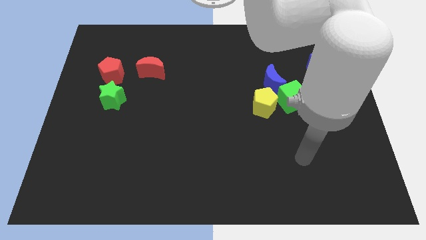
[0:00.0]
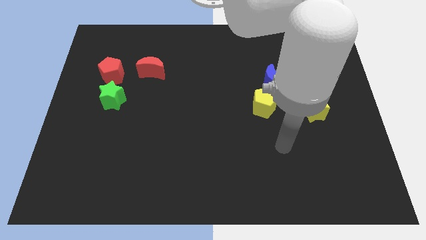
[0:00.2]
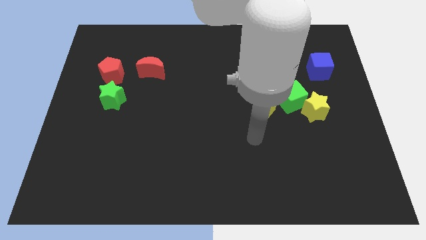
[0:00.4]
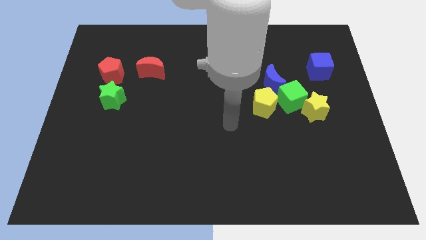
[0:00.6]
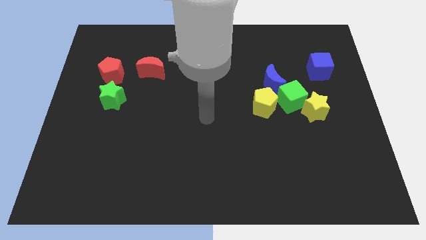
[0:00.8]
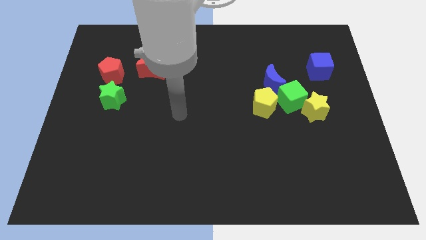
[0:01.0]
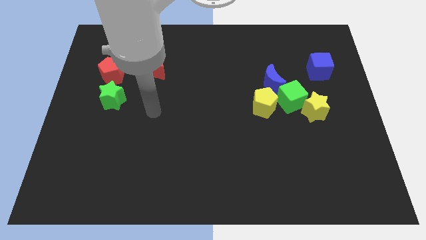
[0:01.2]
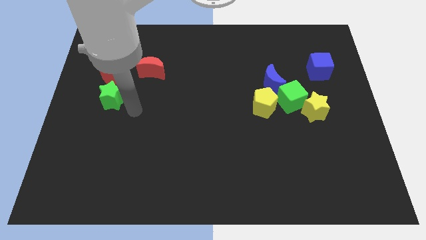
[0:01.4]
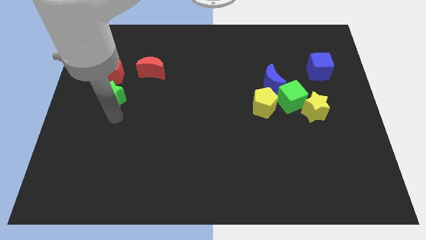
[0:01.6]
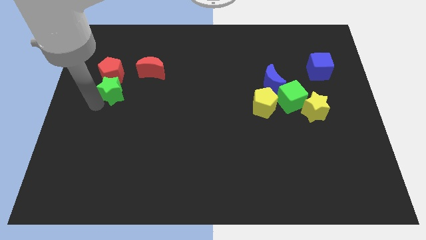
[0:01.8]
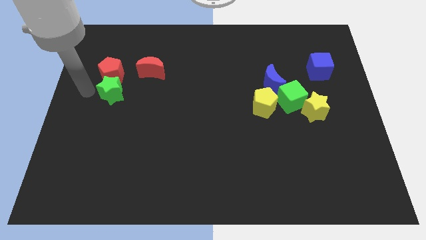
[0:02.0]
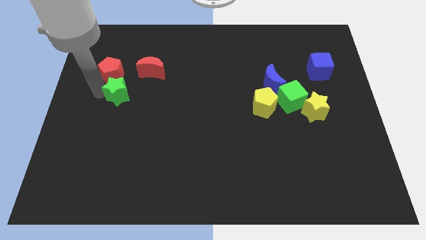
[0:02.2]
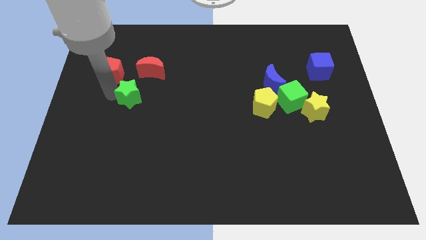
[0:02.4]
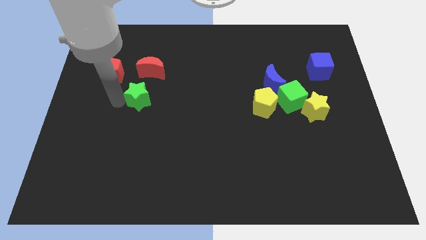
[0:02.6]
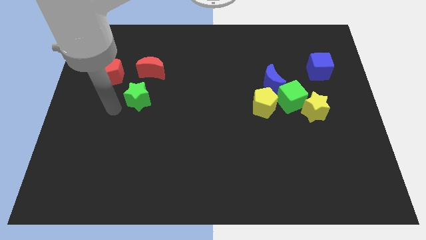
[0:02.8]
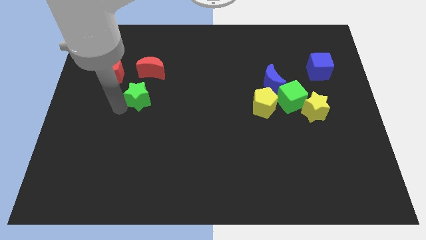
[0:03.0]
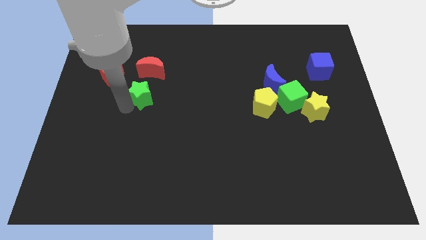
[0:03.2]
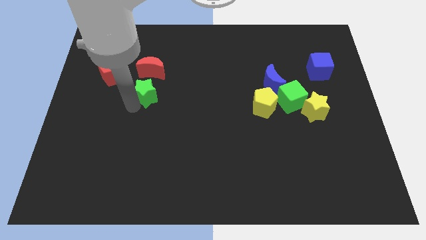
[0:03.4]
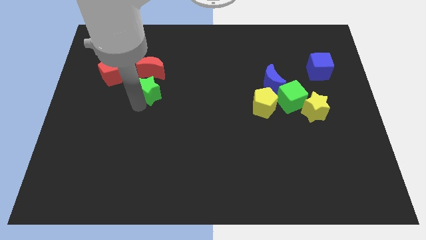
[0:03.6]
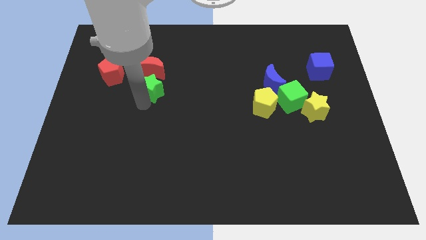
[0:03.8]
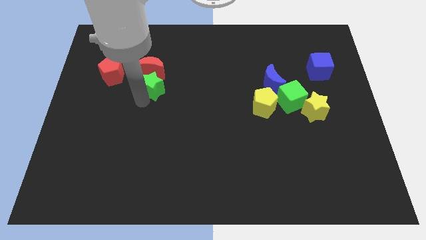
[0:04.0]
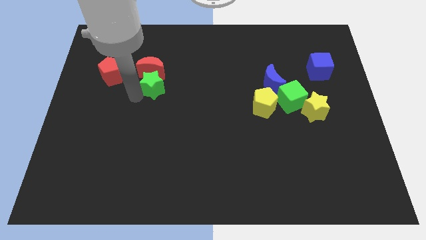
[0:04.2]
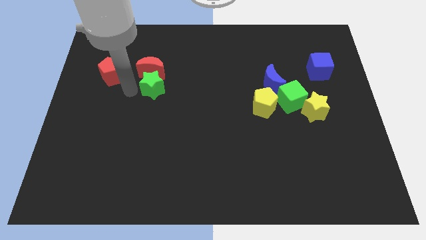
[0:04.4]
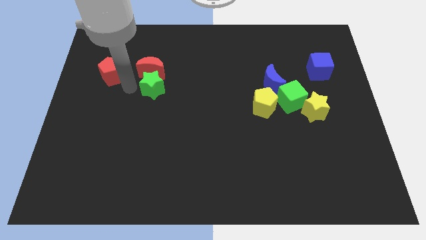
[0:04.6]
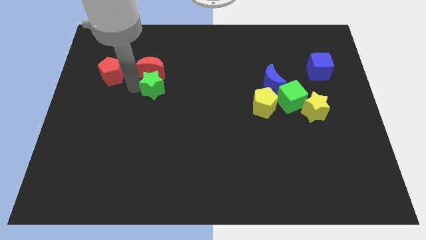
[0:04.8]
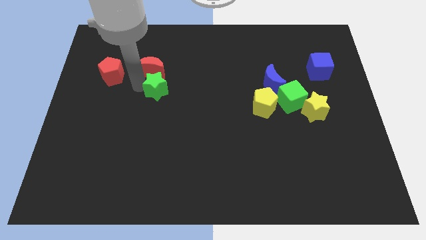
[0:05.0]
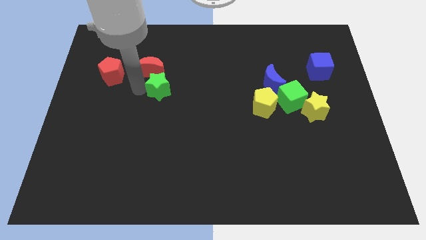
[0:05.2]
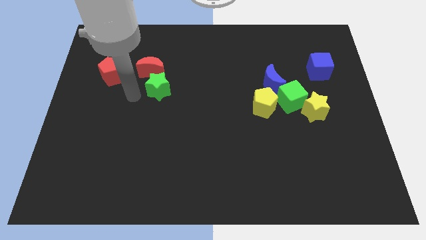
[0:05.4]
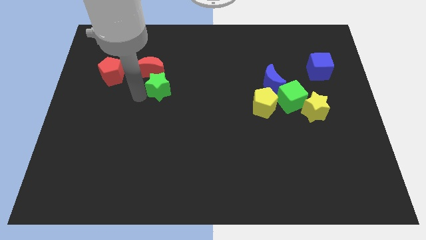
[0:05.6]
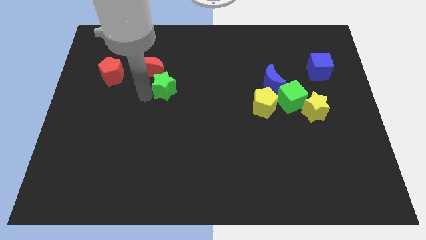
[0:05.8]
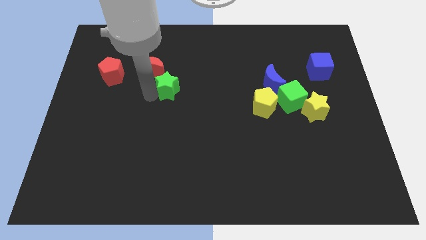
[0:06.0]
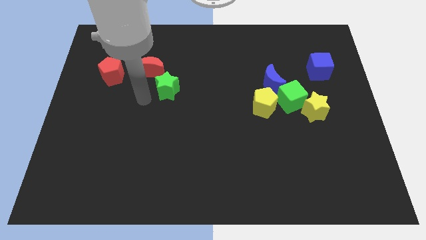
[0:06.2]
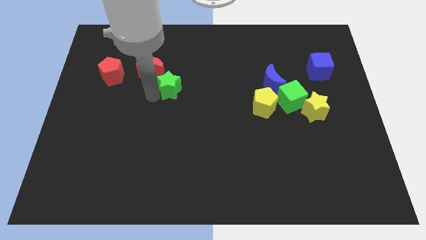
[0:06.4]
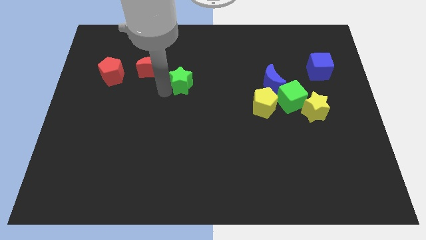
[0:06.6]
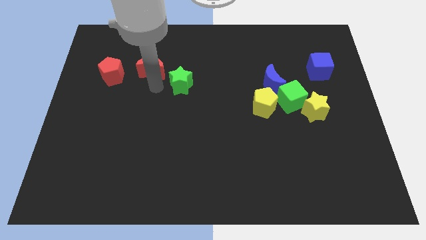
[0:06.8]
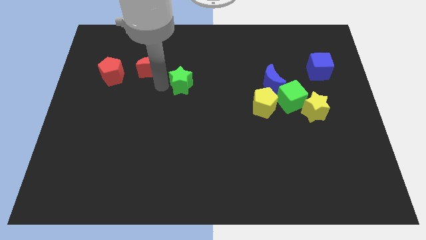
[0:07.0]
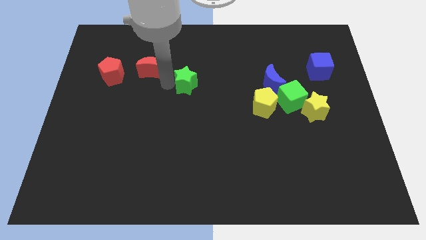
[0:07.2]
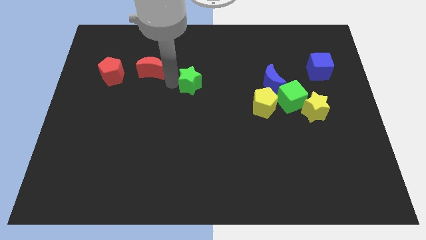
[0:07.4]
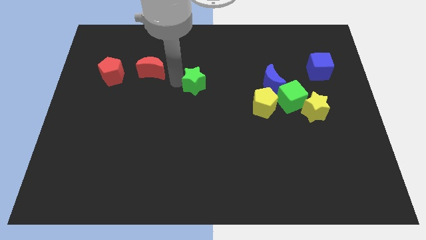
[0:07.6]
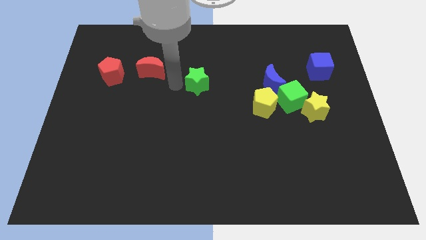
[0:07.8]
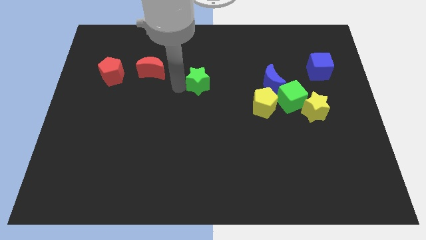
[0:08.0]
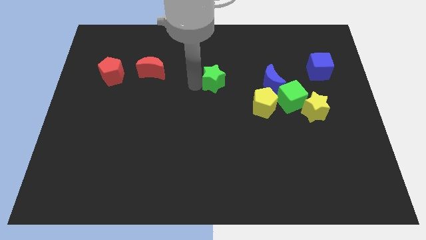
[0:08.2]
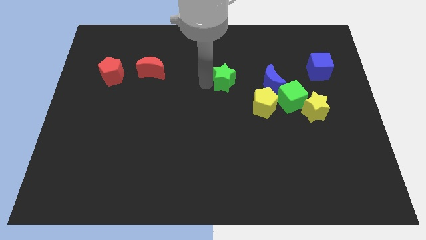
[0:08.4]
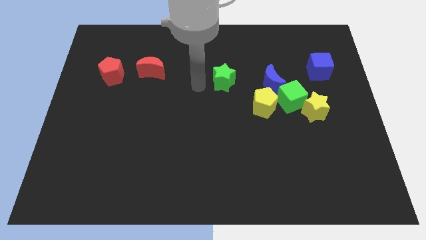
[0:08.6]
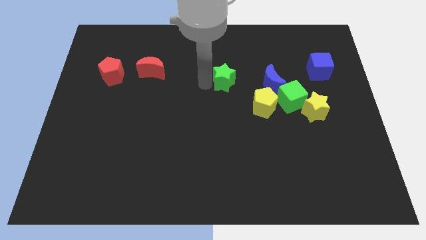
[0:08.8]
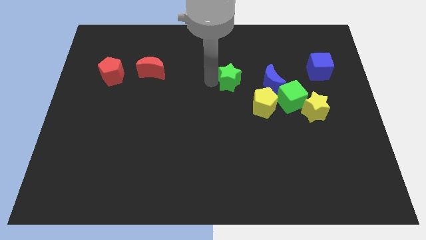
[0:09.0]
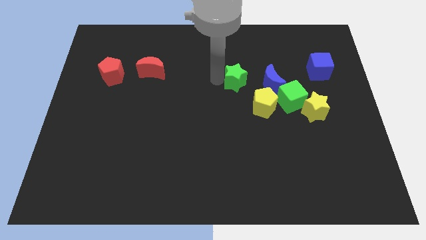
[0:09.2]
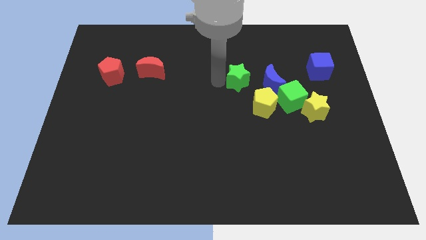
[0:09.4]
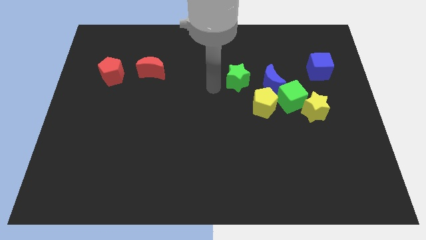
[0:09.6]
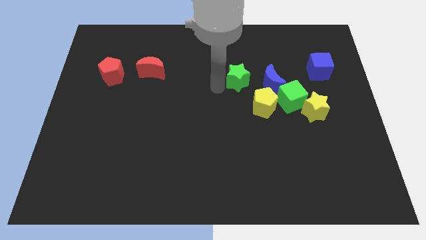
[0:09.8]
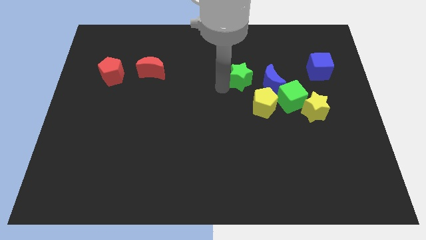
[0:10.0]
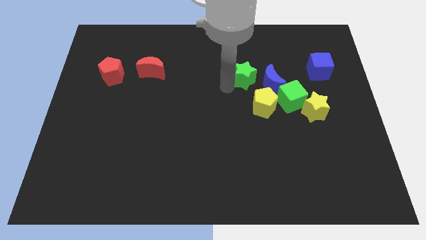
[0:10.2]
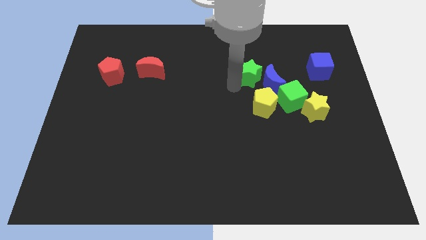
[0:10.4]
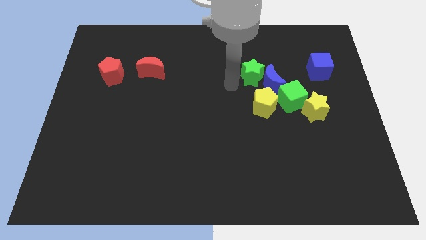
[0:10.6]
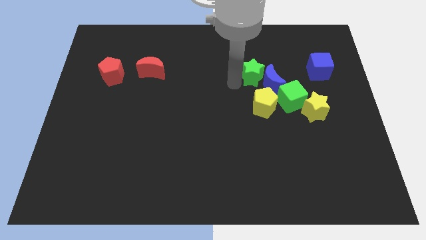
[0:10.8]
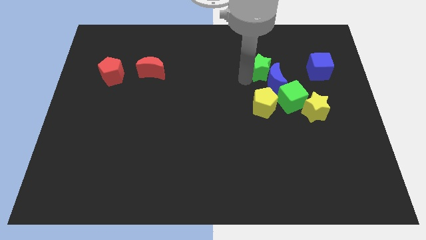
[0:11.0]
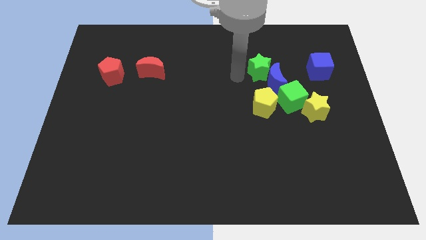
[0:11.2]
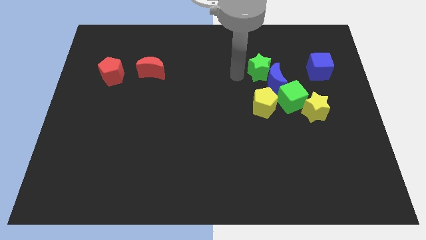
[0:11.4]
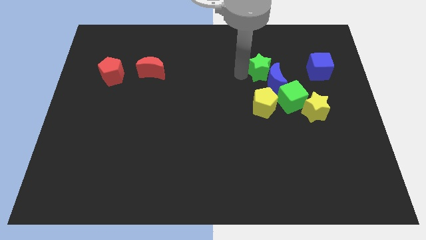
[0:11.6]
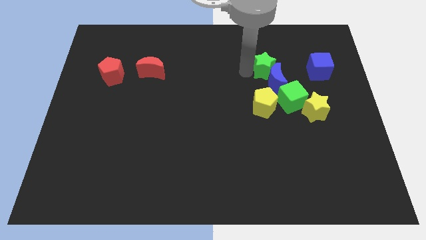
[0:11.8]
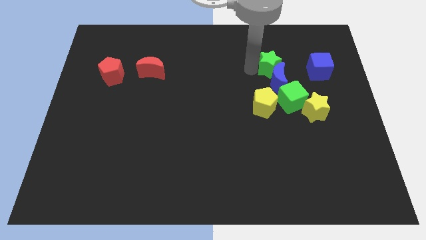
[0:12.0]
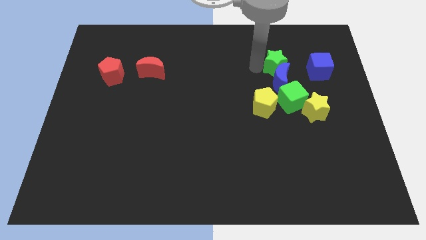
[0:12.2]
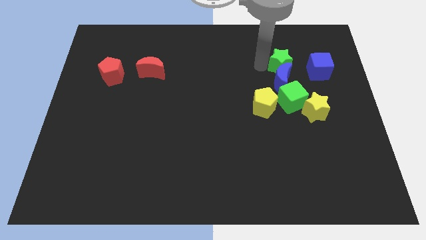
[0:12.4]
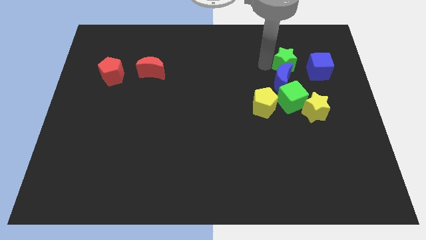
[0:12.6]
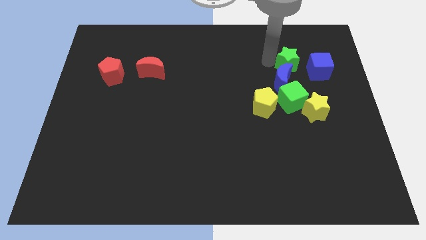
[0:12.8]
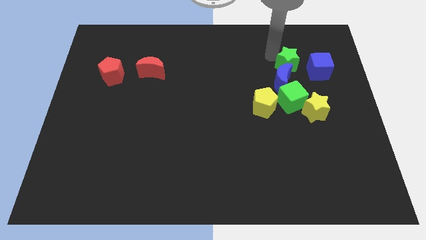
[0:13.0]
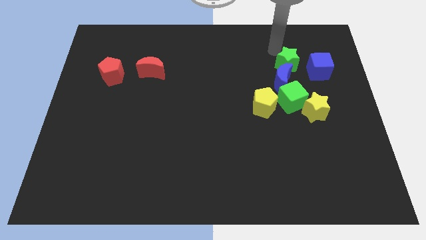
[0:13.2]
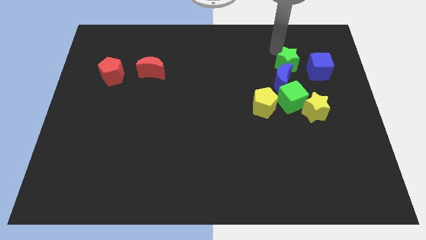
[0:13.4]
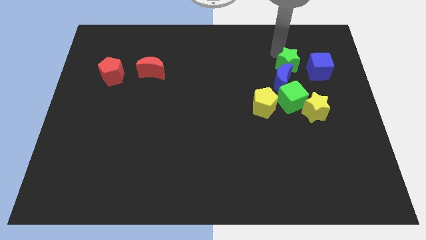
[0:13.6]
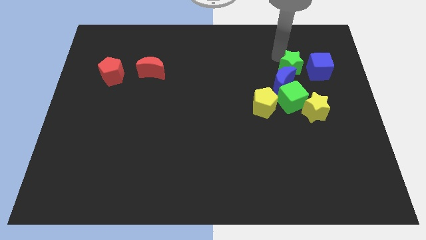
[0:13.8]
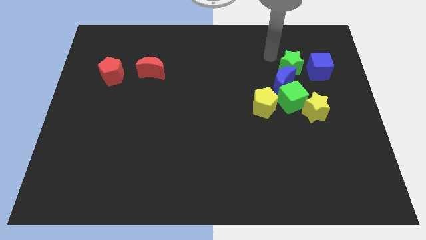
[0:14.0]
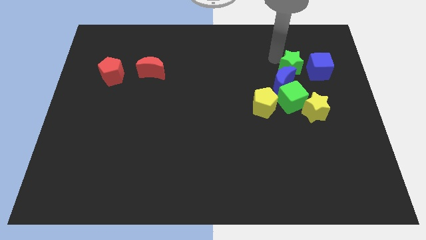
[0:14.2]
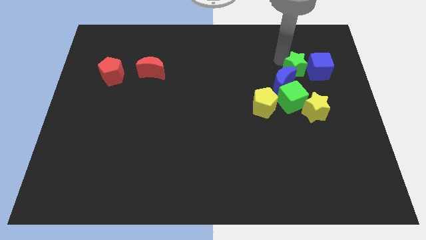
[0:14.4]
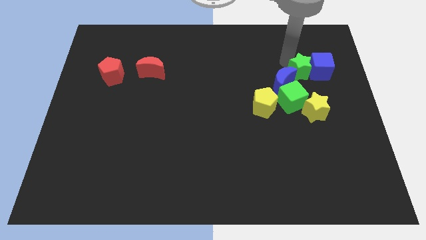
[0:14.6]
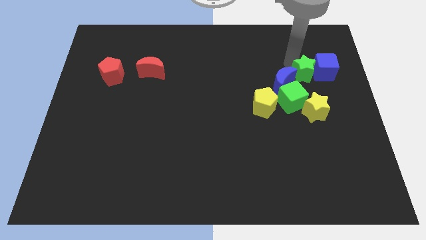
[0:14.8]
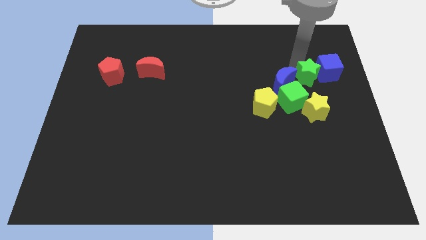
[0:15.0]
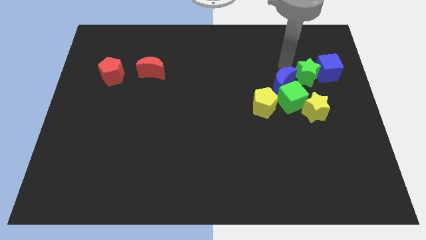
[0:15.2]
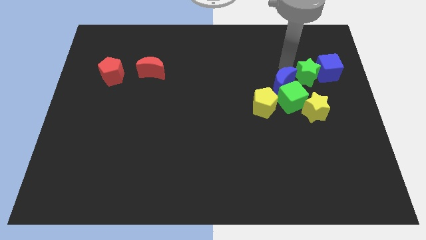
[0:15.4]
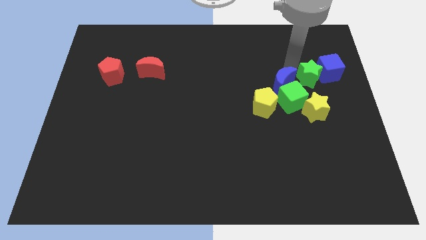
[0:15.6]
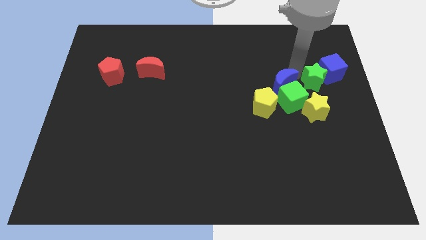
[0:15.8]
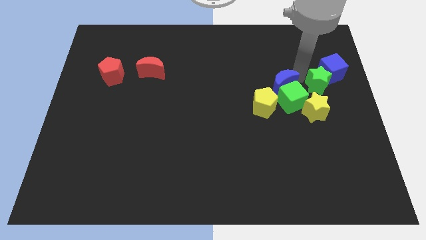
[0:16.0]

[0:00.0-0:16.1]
move the green star to the right side
